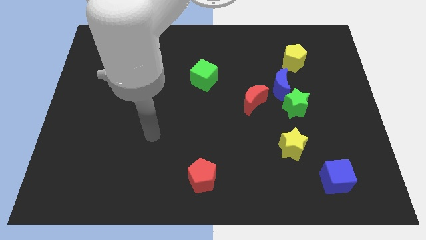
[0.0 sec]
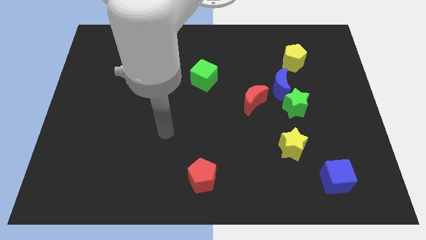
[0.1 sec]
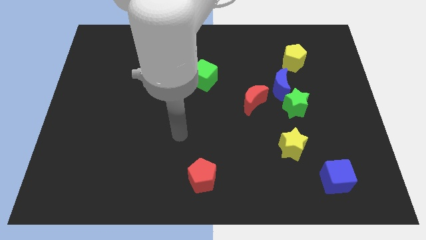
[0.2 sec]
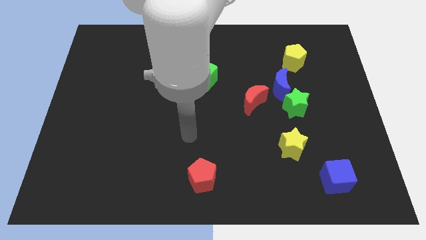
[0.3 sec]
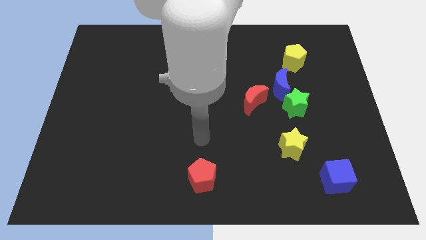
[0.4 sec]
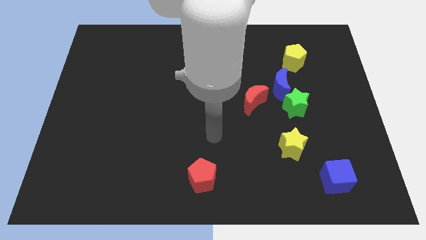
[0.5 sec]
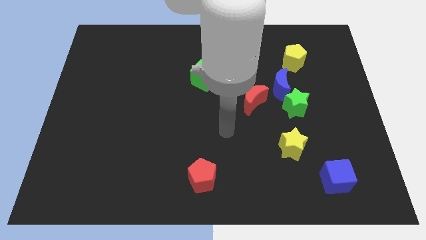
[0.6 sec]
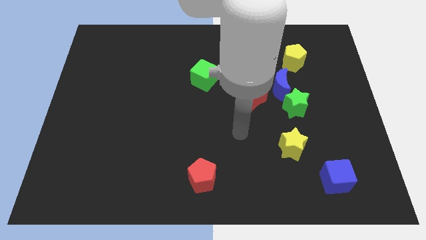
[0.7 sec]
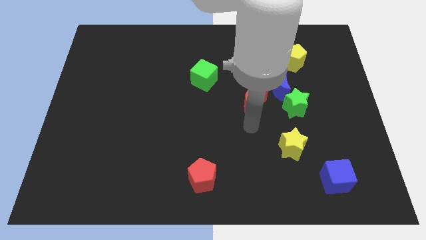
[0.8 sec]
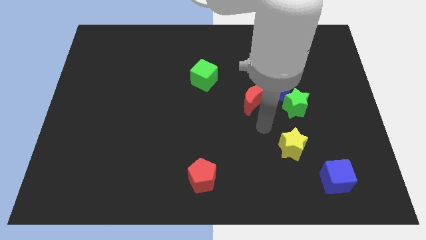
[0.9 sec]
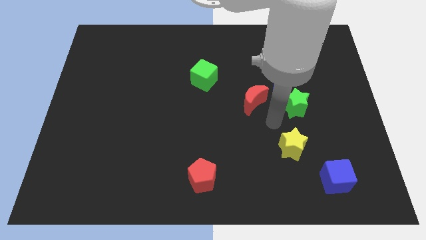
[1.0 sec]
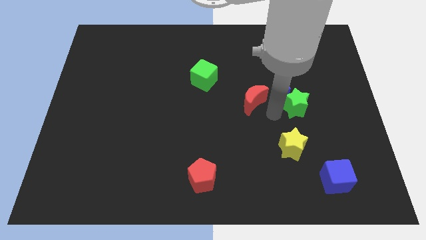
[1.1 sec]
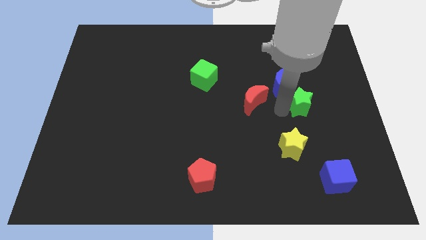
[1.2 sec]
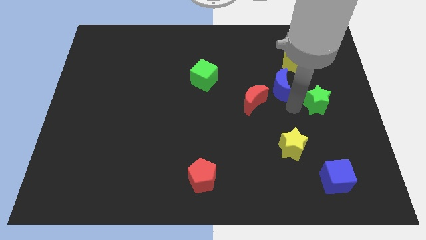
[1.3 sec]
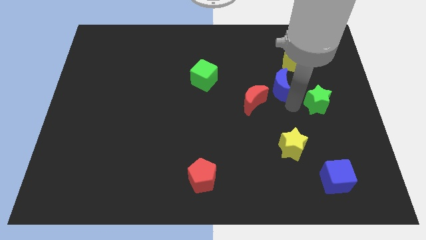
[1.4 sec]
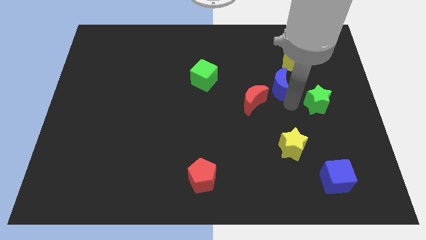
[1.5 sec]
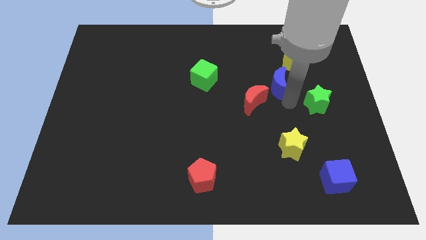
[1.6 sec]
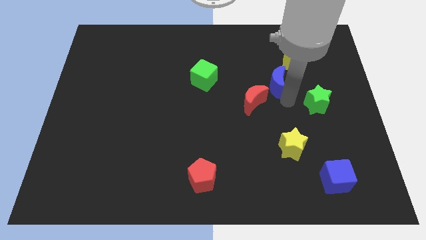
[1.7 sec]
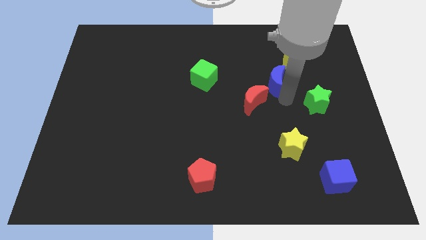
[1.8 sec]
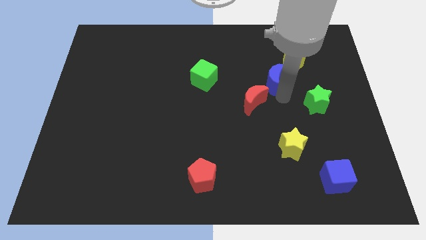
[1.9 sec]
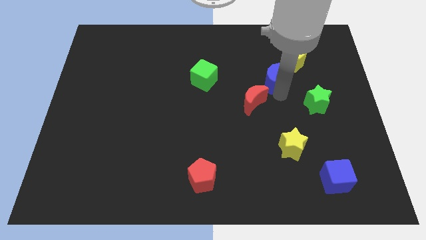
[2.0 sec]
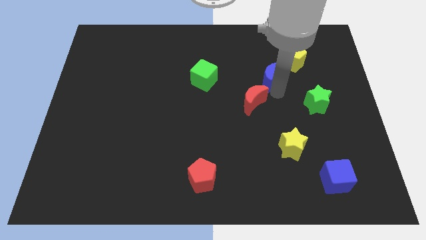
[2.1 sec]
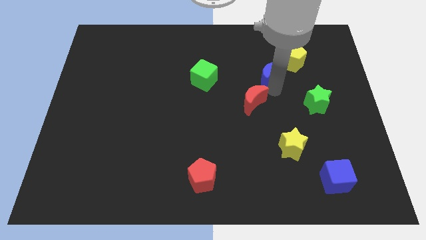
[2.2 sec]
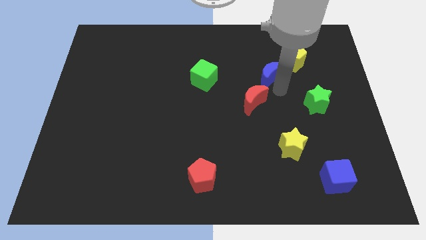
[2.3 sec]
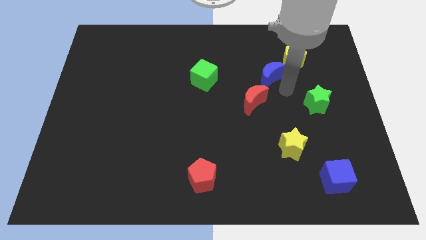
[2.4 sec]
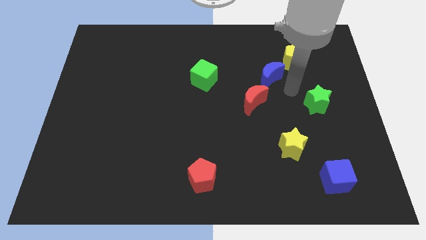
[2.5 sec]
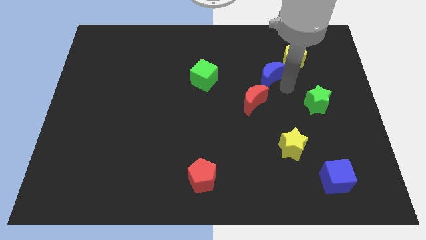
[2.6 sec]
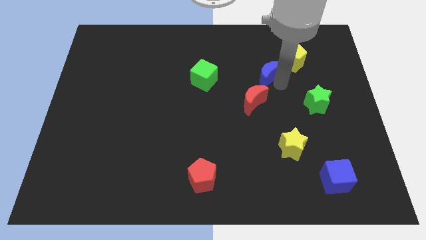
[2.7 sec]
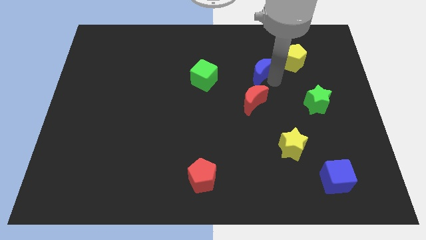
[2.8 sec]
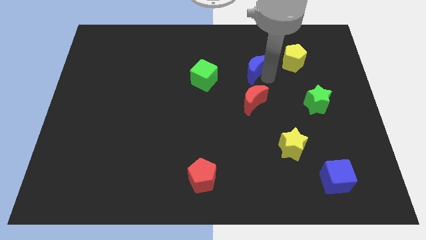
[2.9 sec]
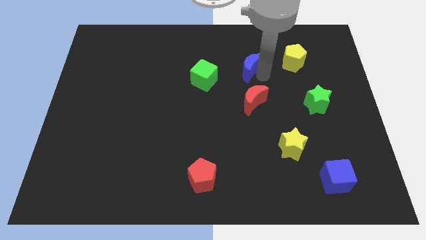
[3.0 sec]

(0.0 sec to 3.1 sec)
separate the blue moon from the green star, red moon, and yellow pentagon

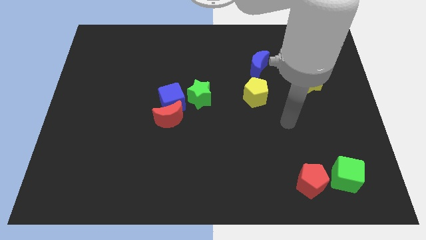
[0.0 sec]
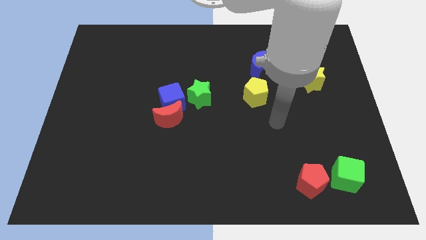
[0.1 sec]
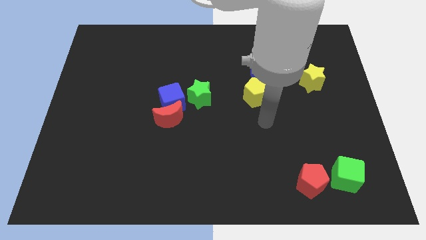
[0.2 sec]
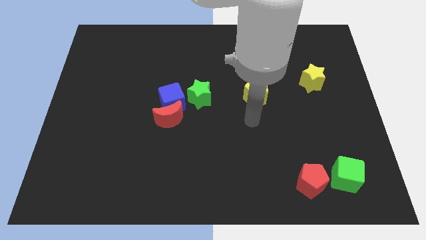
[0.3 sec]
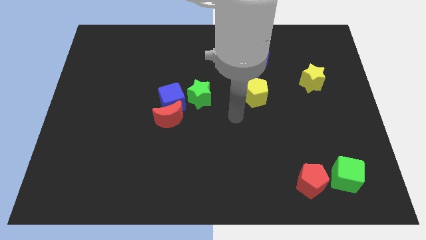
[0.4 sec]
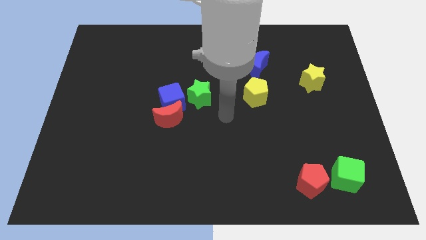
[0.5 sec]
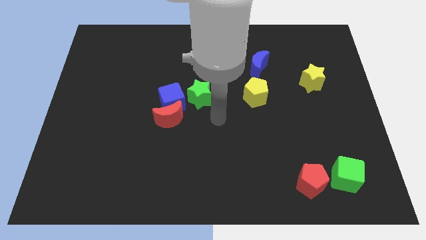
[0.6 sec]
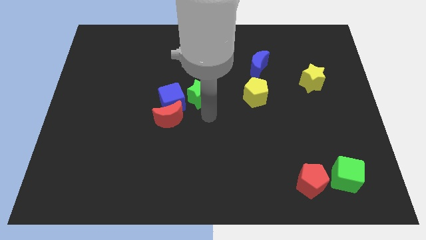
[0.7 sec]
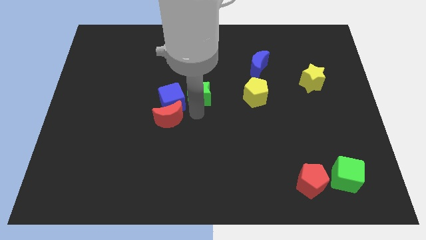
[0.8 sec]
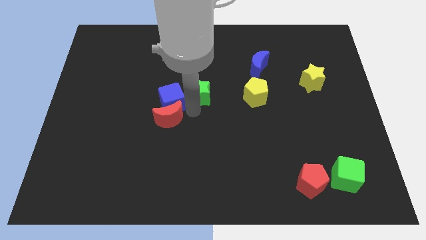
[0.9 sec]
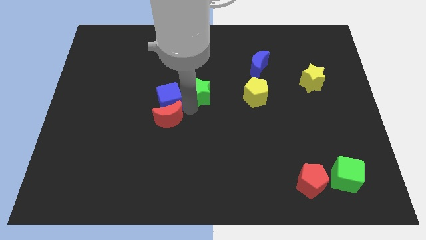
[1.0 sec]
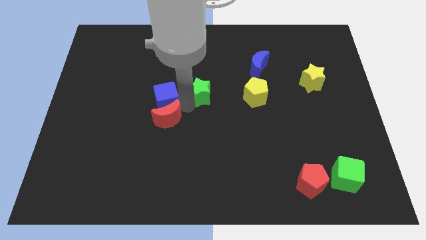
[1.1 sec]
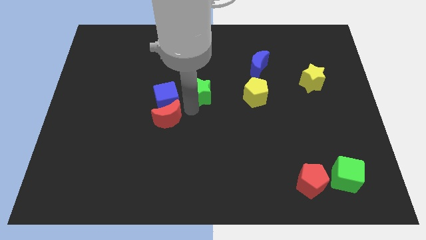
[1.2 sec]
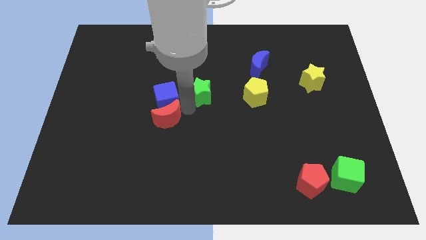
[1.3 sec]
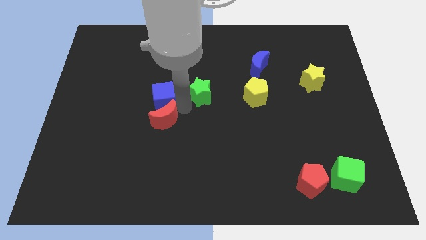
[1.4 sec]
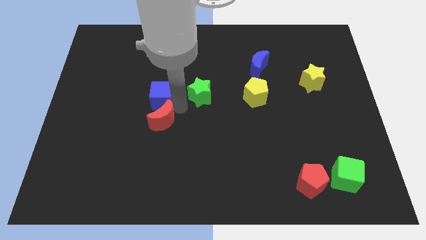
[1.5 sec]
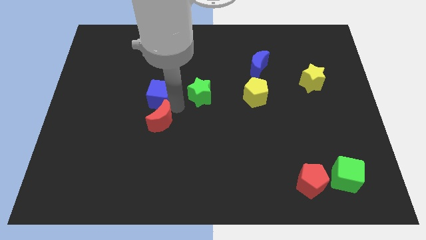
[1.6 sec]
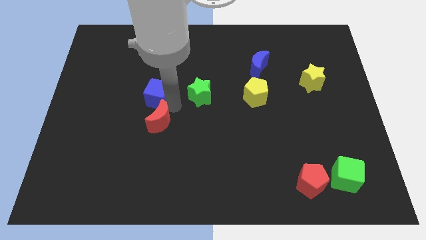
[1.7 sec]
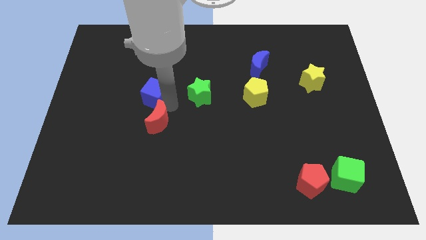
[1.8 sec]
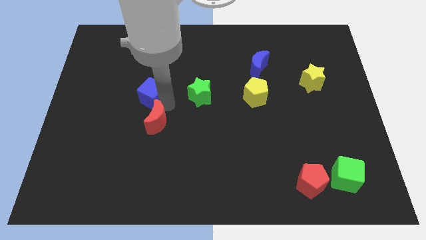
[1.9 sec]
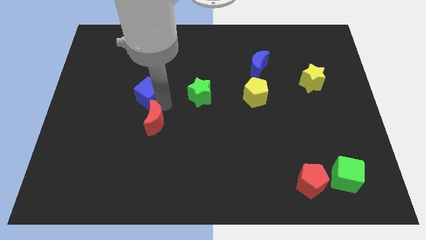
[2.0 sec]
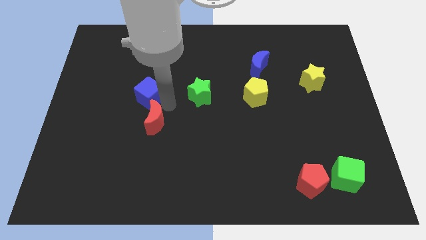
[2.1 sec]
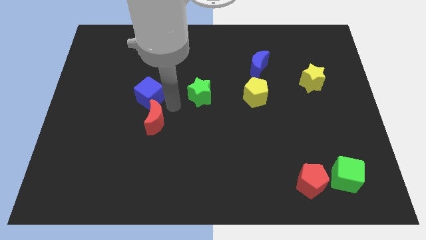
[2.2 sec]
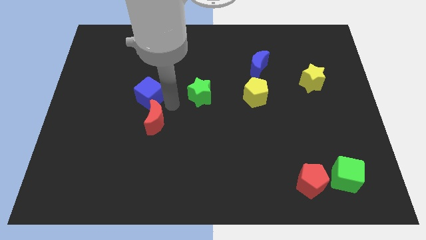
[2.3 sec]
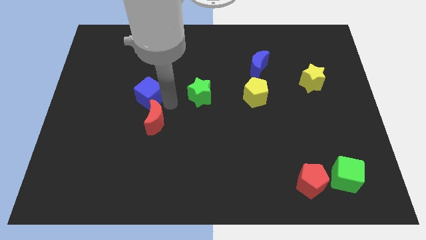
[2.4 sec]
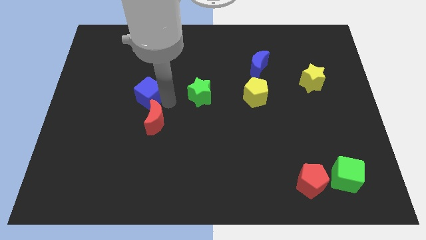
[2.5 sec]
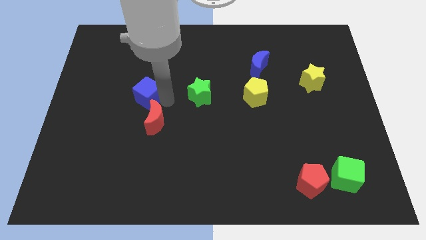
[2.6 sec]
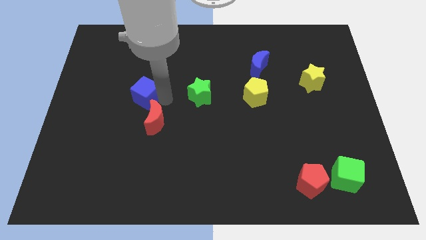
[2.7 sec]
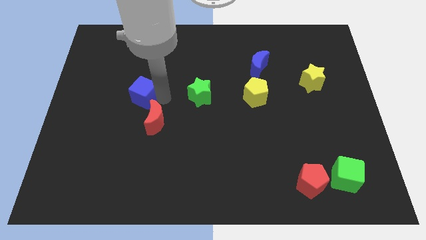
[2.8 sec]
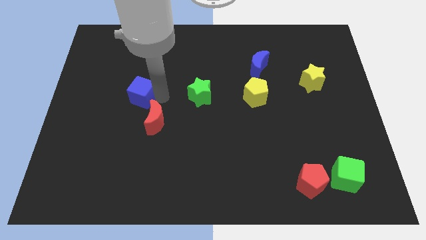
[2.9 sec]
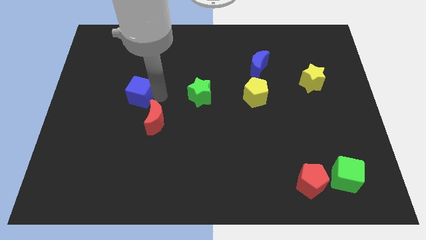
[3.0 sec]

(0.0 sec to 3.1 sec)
pull the blue cube apart from the red moon and green star

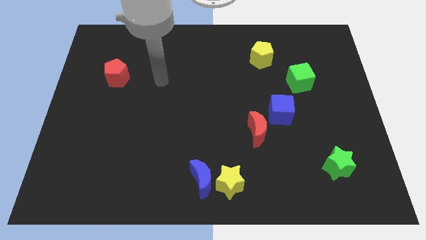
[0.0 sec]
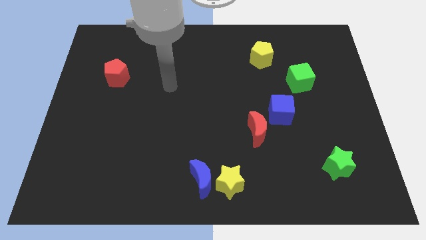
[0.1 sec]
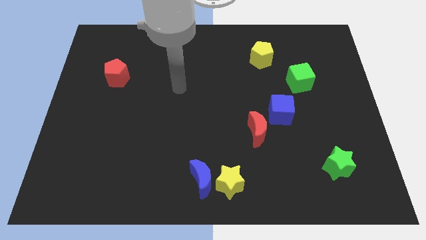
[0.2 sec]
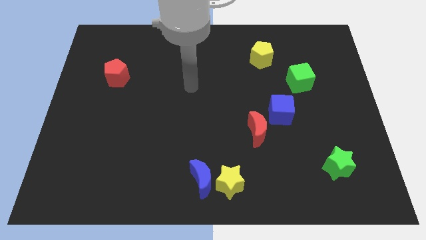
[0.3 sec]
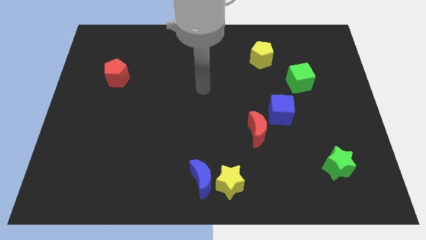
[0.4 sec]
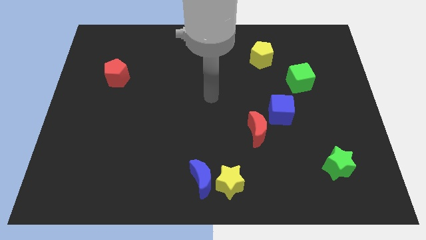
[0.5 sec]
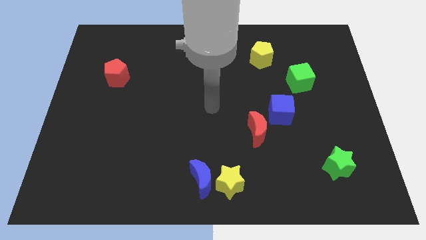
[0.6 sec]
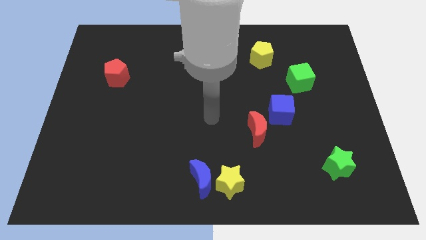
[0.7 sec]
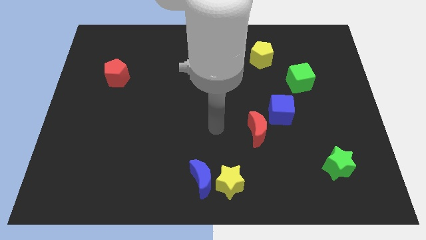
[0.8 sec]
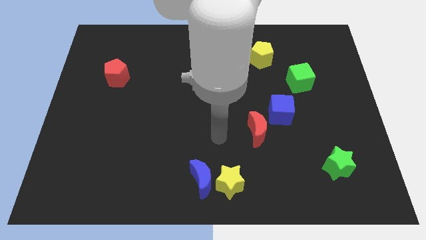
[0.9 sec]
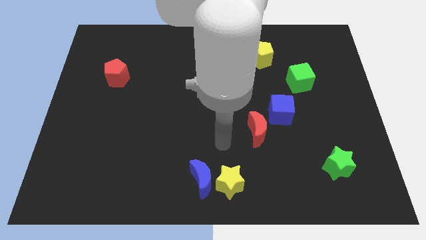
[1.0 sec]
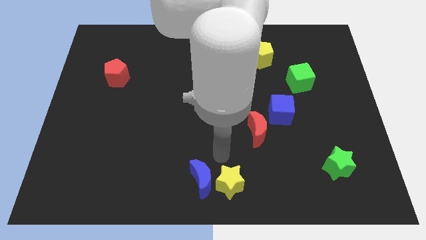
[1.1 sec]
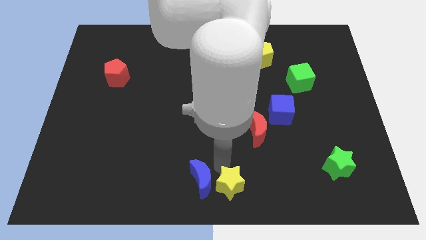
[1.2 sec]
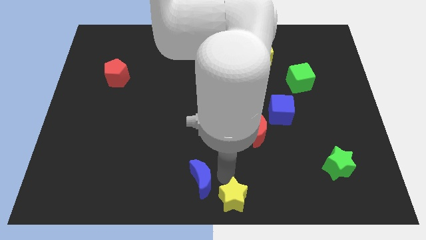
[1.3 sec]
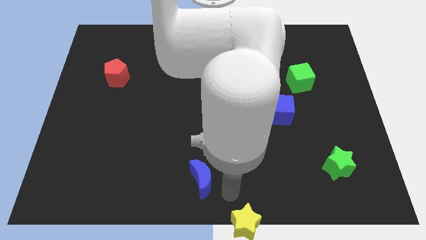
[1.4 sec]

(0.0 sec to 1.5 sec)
move the blue moon away from the yellow star

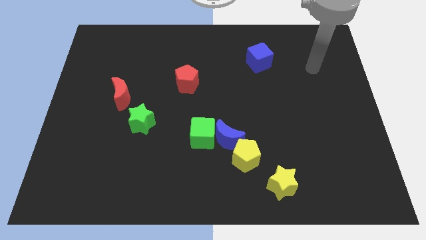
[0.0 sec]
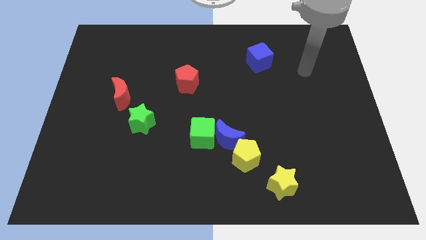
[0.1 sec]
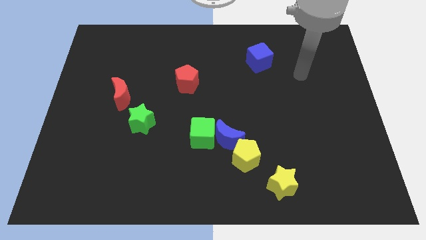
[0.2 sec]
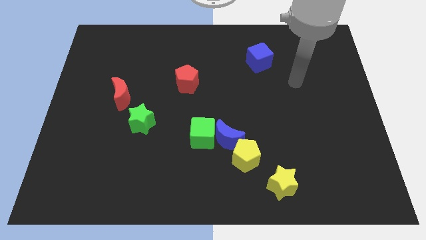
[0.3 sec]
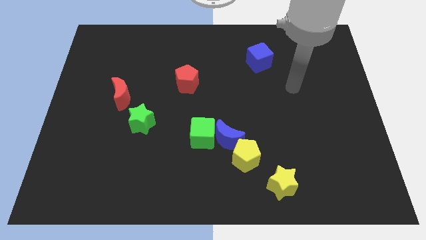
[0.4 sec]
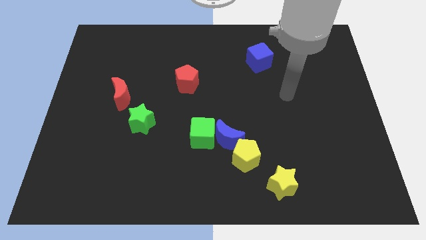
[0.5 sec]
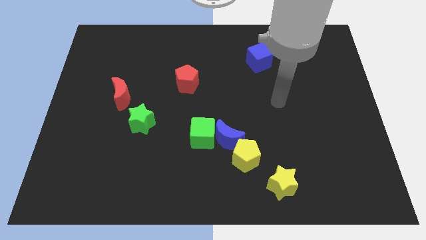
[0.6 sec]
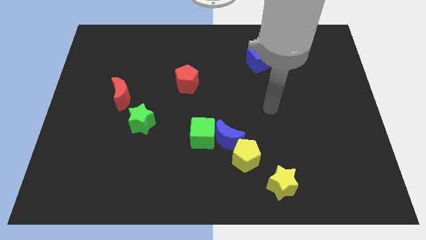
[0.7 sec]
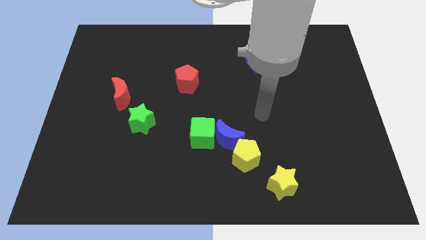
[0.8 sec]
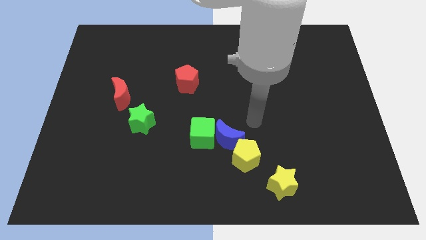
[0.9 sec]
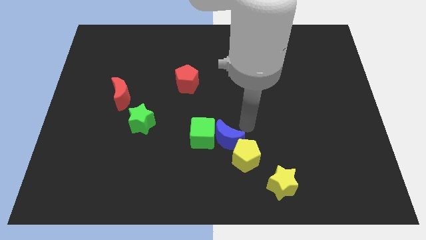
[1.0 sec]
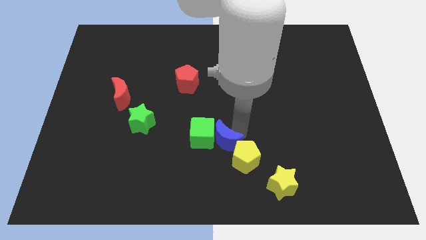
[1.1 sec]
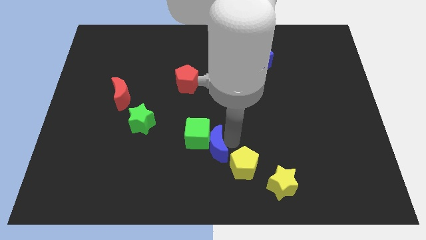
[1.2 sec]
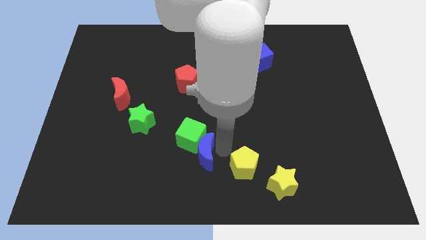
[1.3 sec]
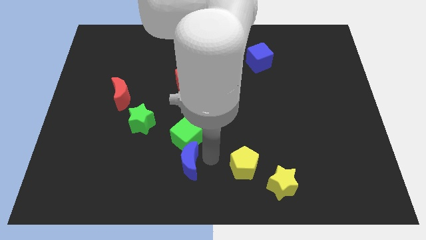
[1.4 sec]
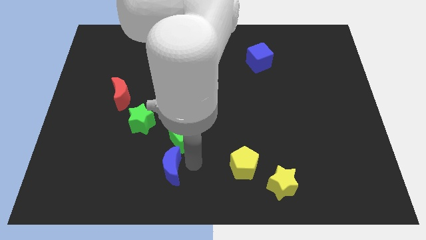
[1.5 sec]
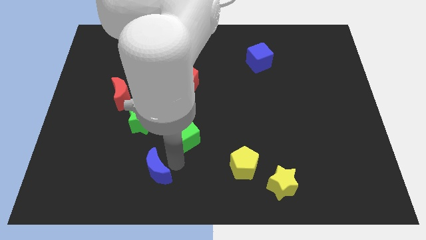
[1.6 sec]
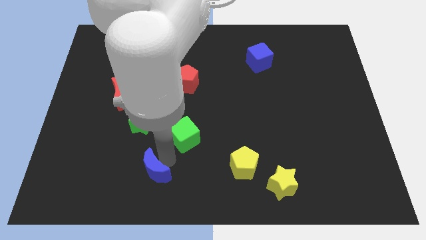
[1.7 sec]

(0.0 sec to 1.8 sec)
separate the green cube from the blue moon
